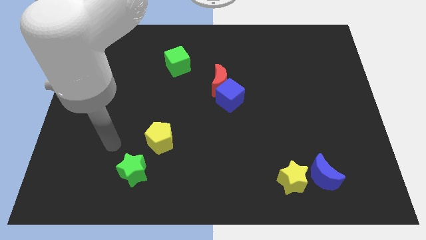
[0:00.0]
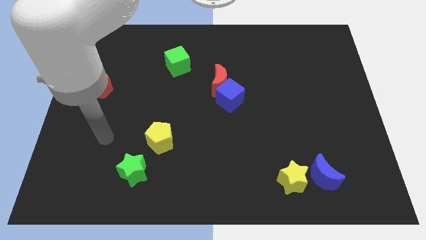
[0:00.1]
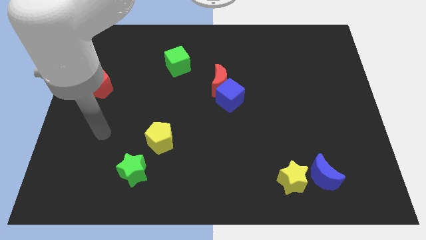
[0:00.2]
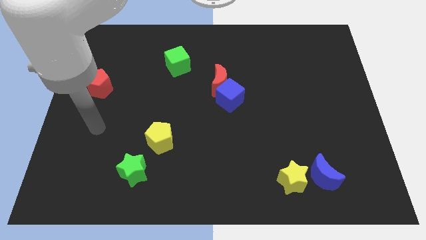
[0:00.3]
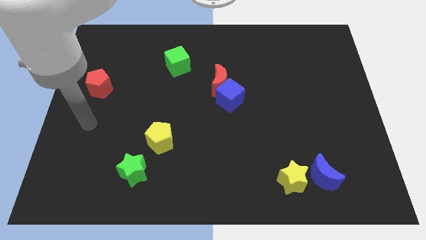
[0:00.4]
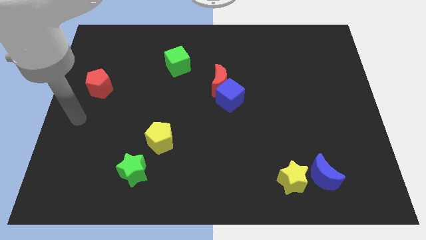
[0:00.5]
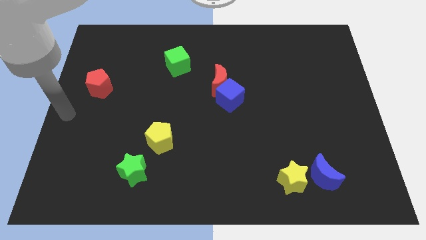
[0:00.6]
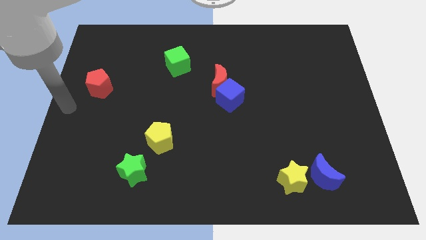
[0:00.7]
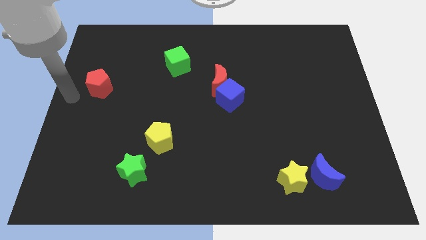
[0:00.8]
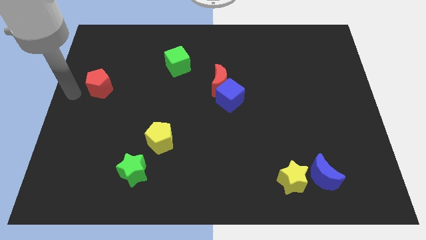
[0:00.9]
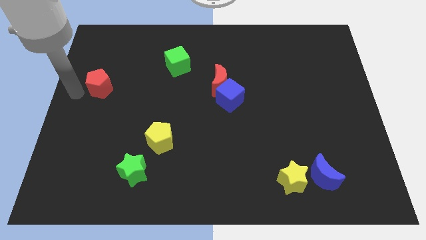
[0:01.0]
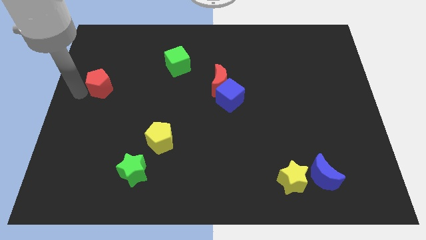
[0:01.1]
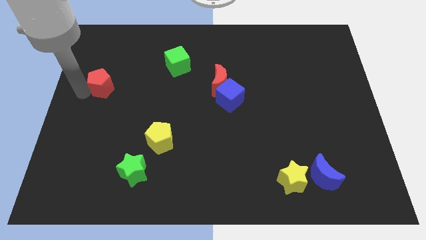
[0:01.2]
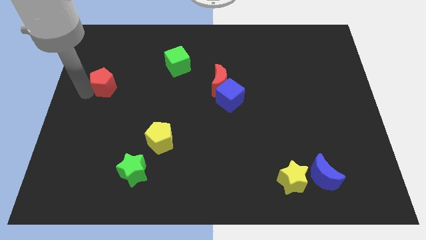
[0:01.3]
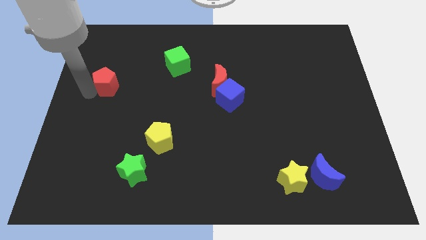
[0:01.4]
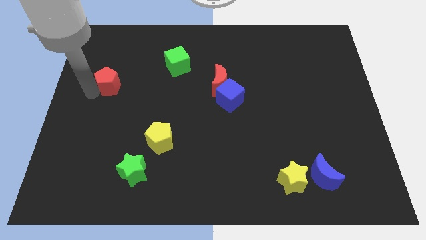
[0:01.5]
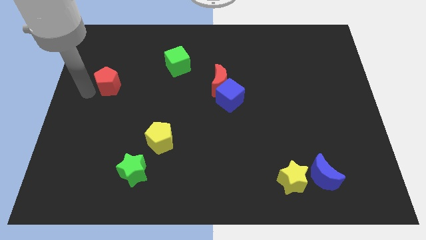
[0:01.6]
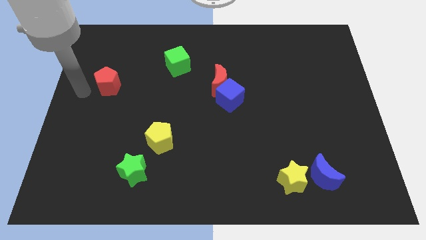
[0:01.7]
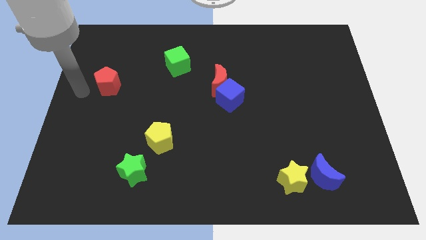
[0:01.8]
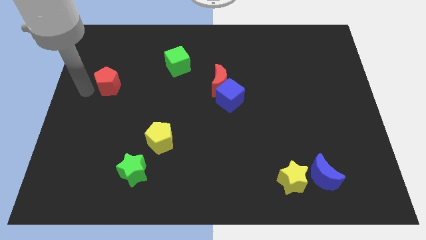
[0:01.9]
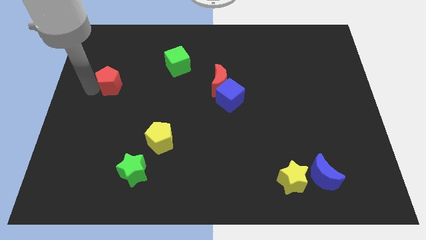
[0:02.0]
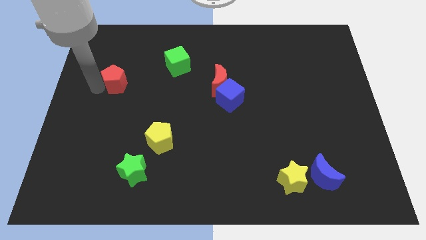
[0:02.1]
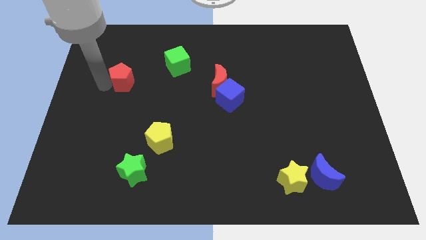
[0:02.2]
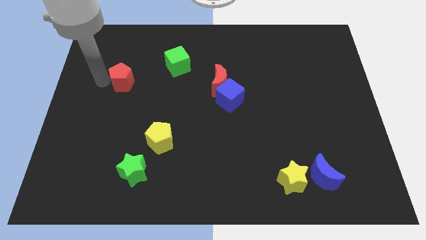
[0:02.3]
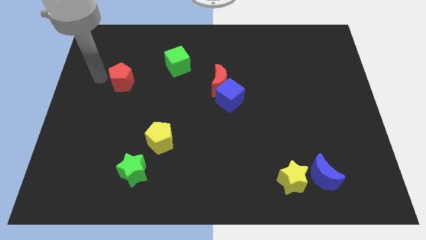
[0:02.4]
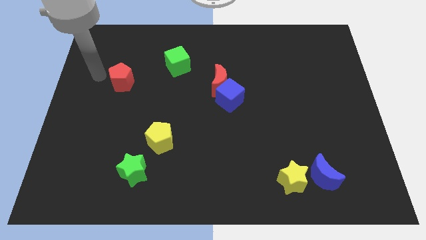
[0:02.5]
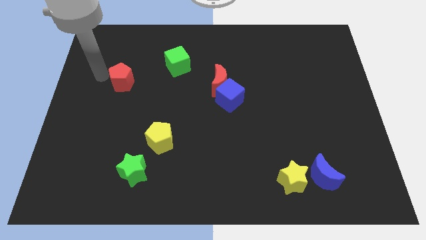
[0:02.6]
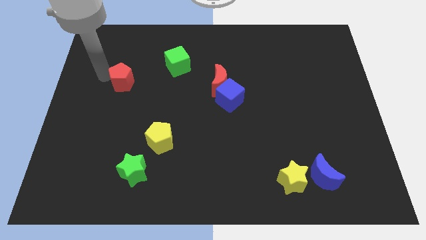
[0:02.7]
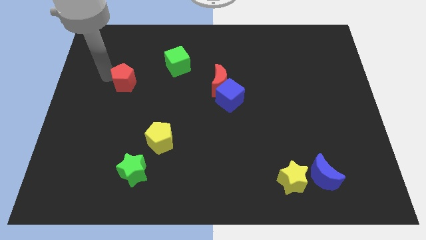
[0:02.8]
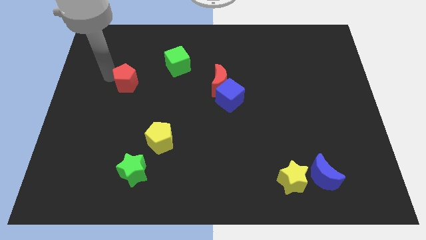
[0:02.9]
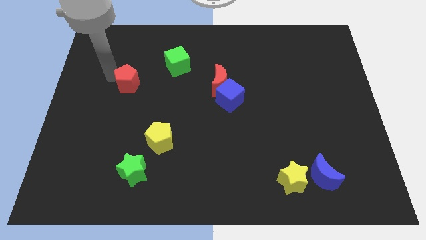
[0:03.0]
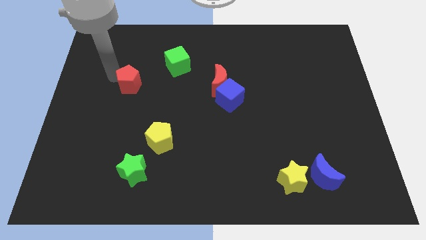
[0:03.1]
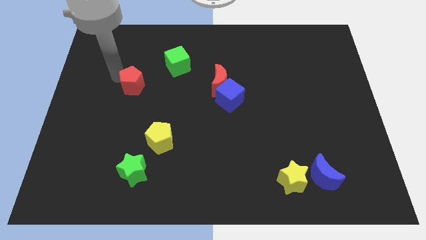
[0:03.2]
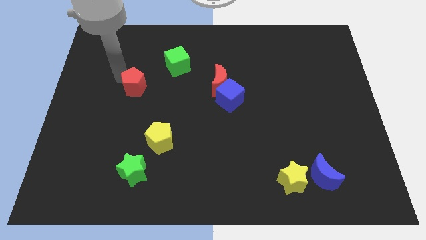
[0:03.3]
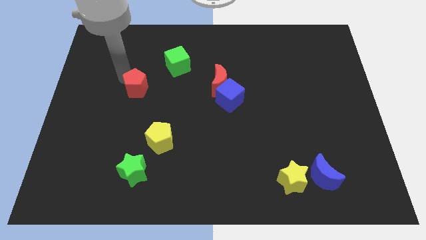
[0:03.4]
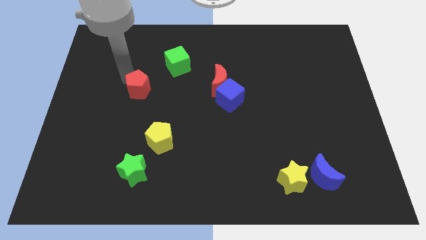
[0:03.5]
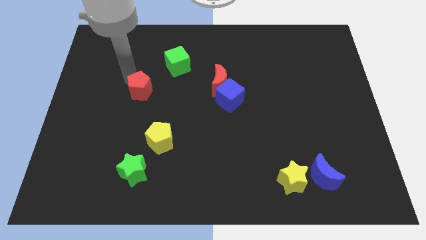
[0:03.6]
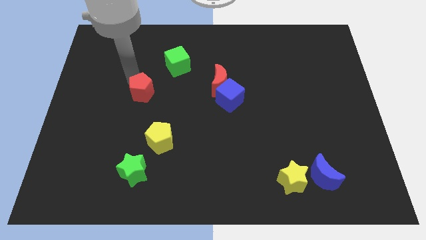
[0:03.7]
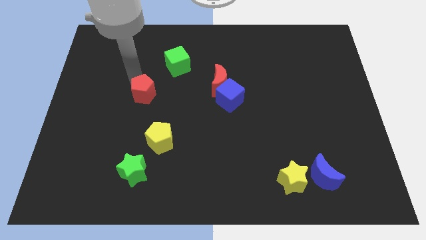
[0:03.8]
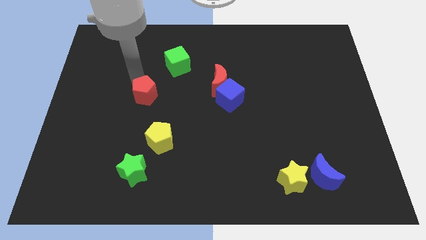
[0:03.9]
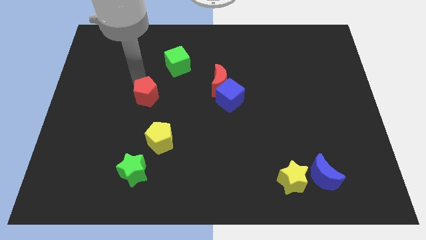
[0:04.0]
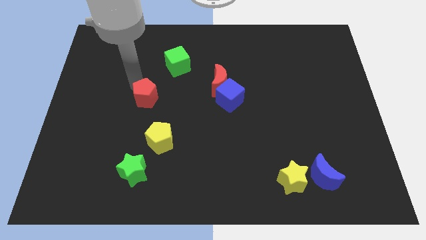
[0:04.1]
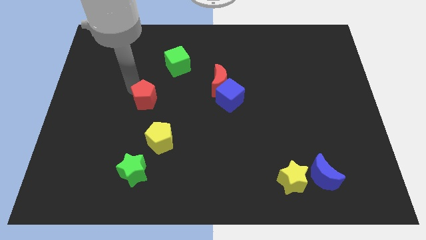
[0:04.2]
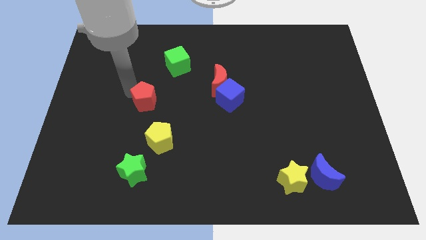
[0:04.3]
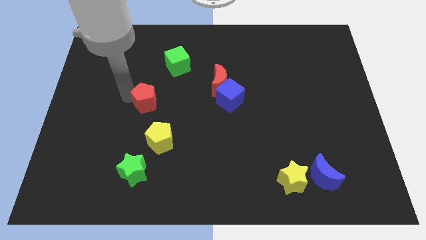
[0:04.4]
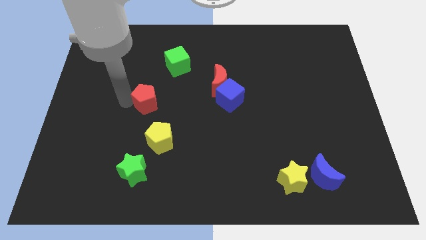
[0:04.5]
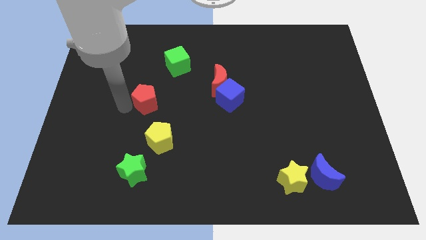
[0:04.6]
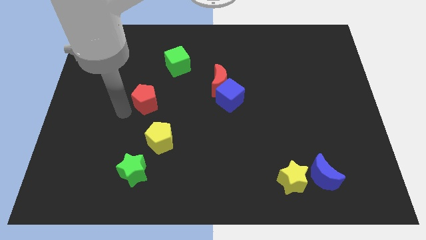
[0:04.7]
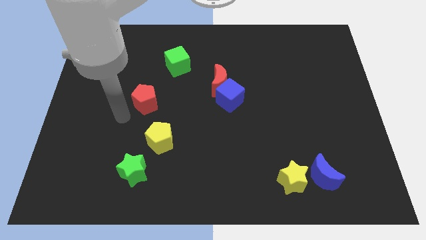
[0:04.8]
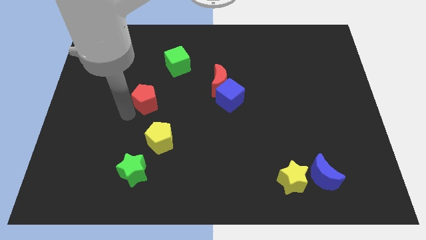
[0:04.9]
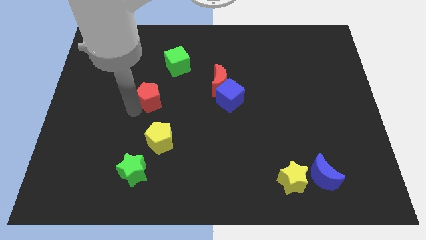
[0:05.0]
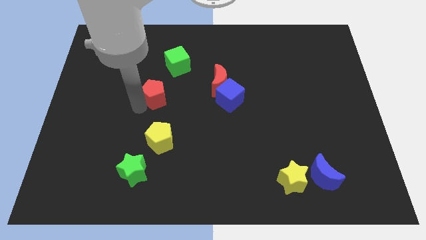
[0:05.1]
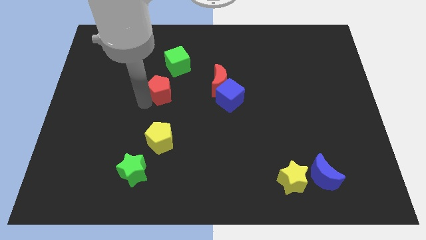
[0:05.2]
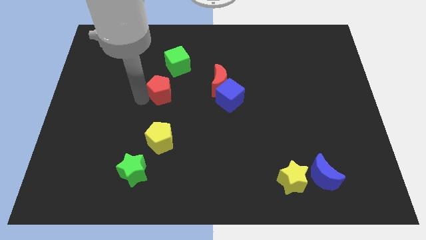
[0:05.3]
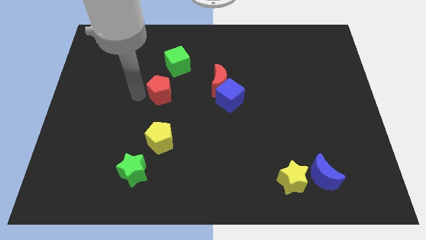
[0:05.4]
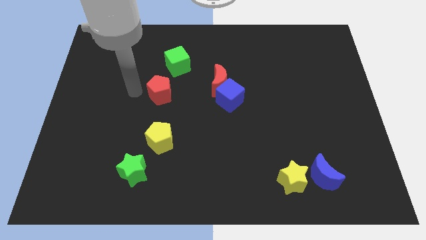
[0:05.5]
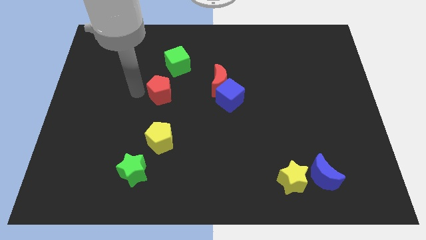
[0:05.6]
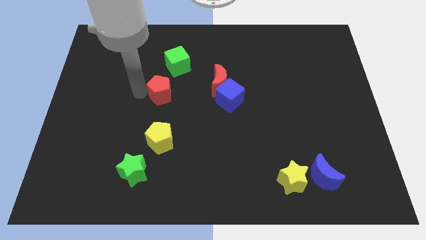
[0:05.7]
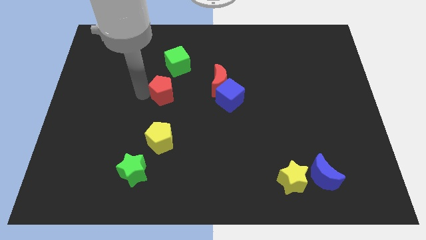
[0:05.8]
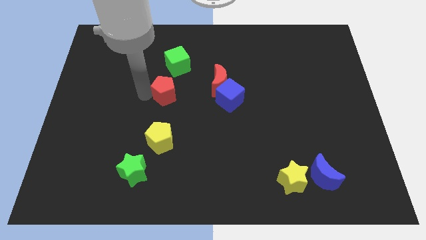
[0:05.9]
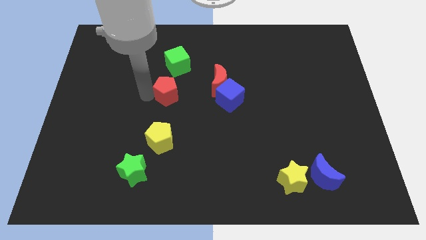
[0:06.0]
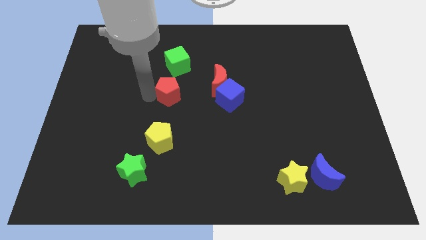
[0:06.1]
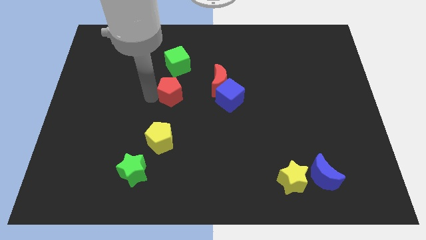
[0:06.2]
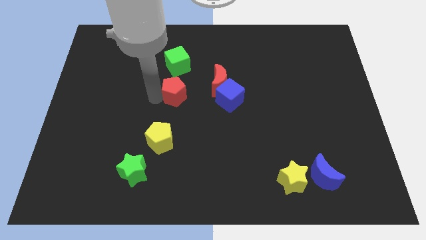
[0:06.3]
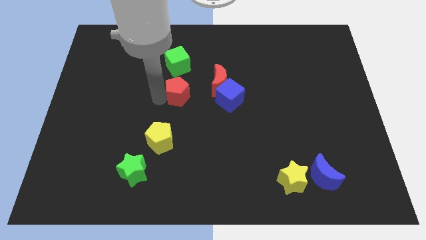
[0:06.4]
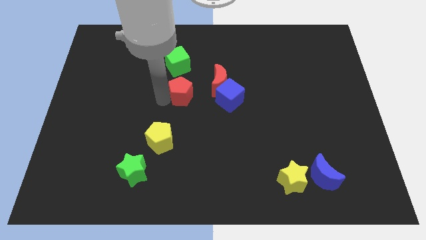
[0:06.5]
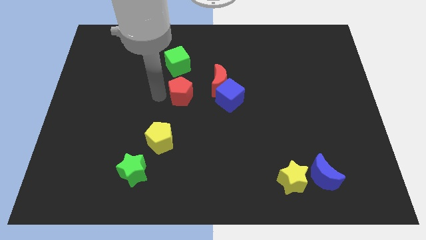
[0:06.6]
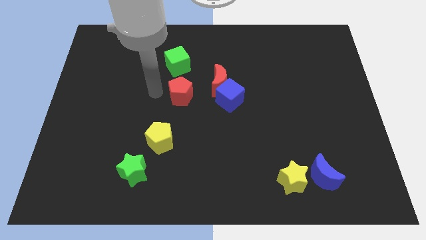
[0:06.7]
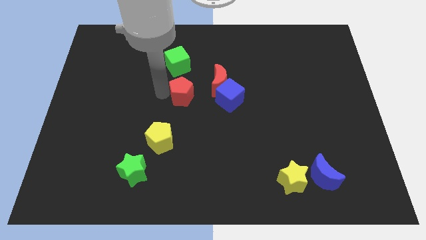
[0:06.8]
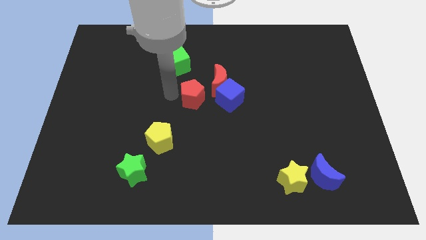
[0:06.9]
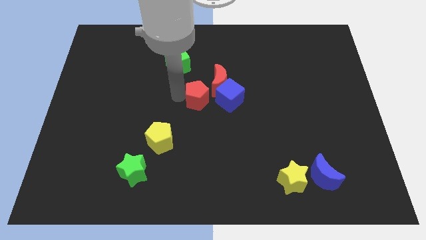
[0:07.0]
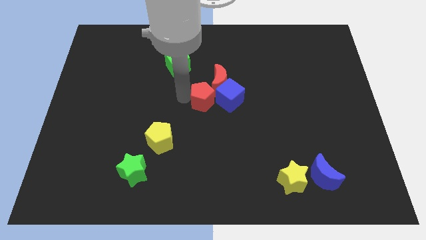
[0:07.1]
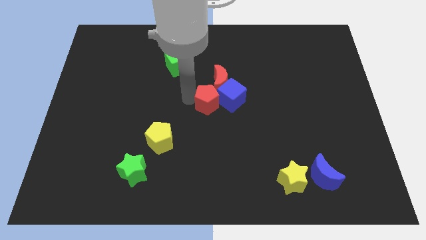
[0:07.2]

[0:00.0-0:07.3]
push the red pentagon next to the blue cube
